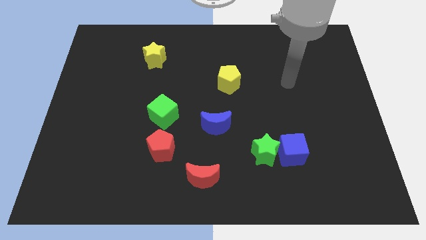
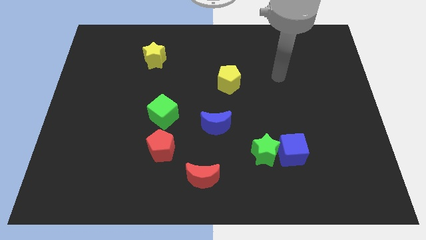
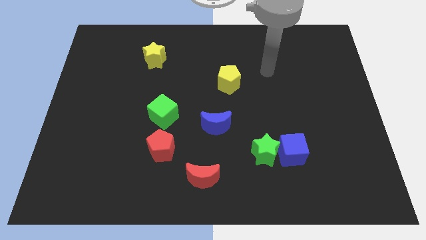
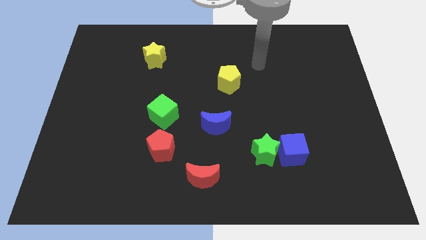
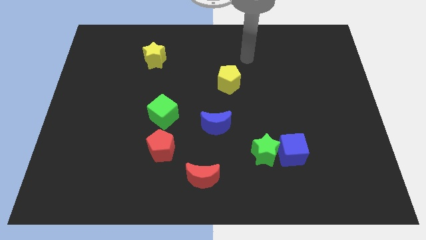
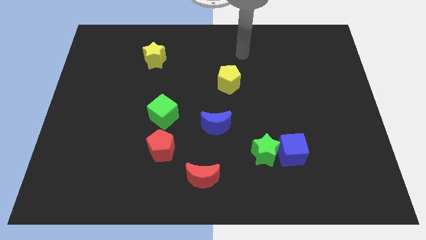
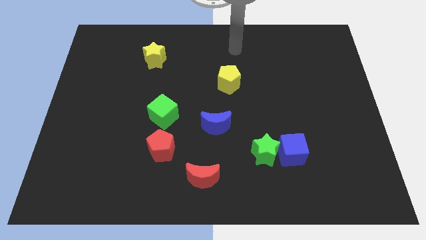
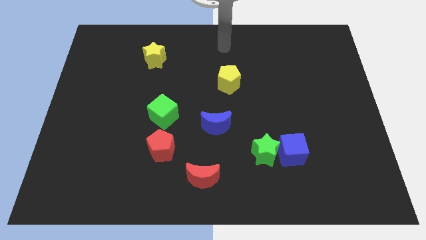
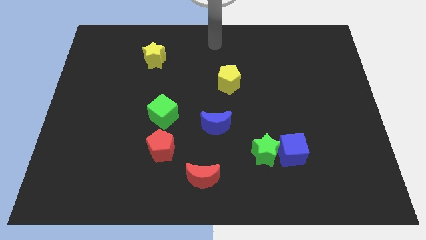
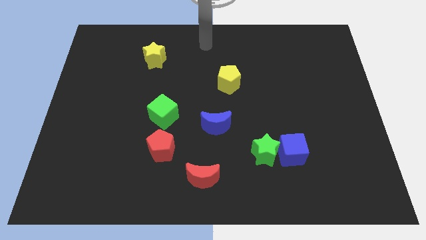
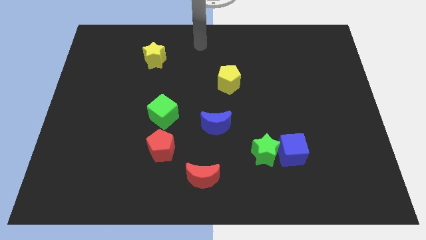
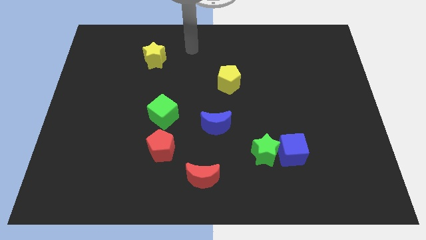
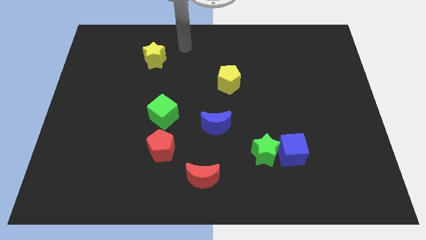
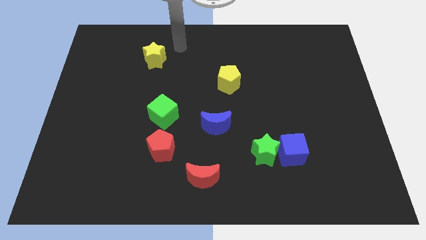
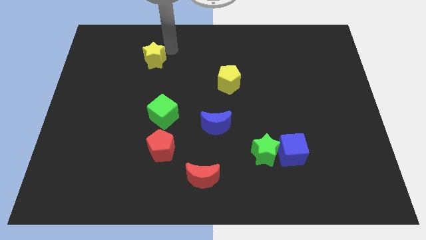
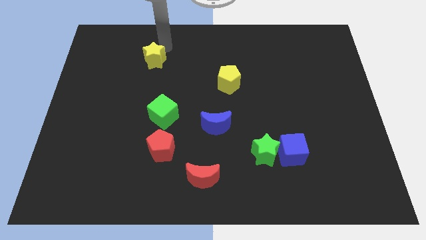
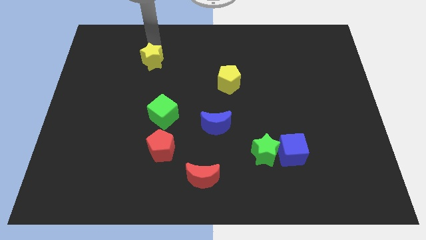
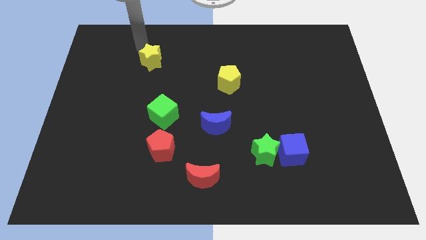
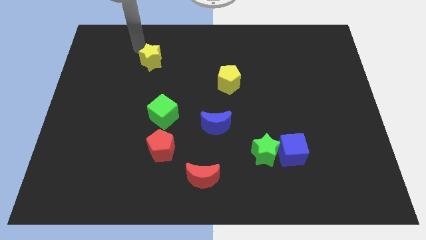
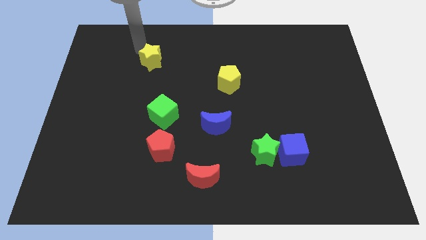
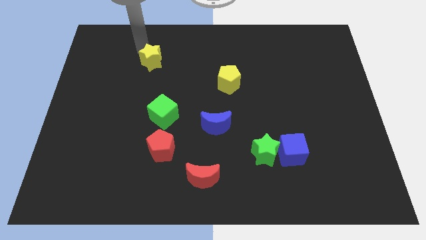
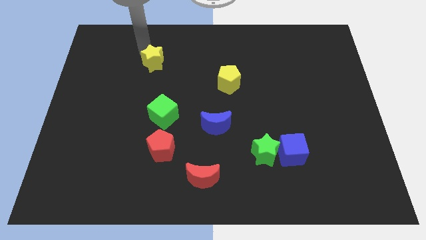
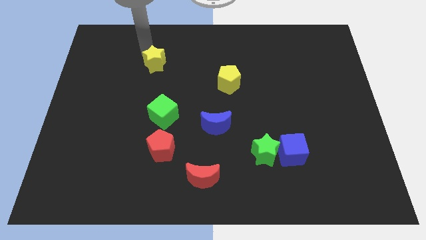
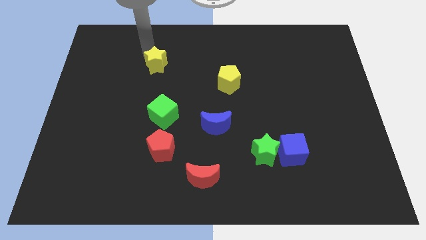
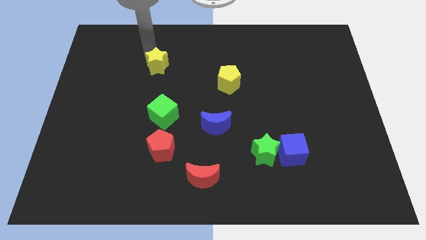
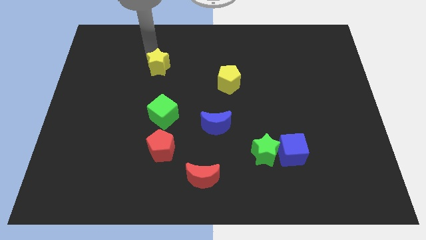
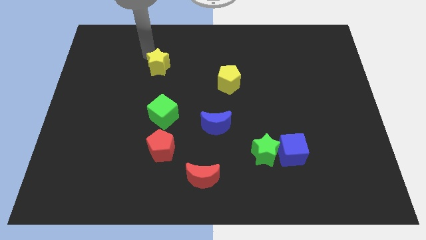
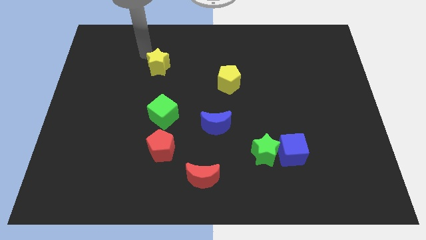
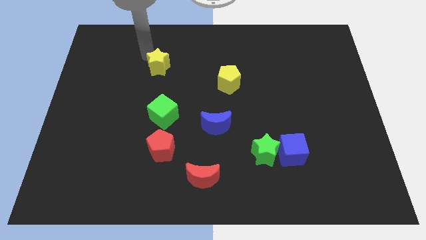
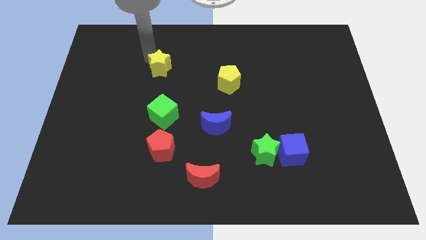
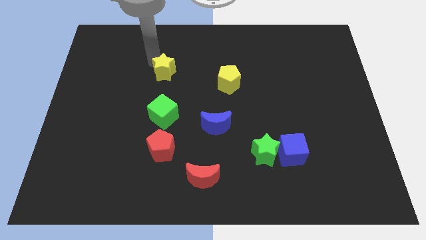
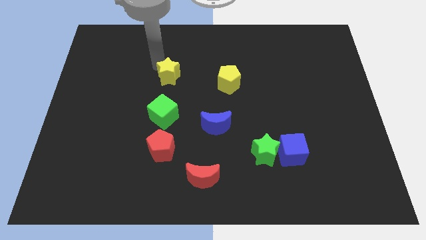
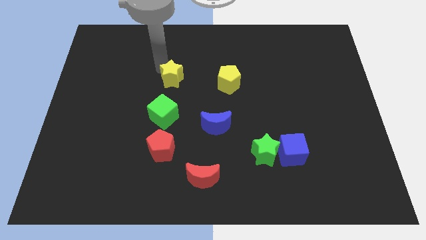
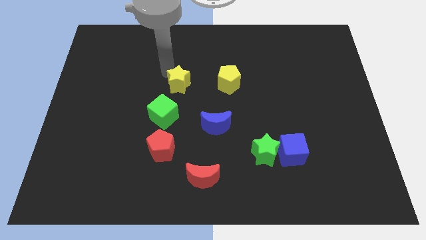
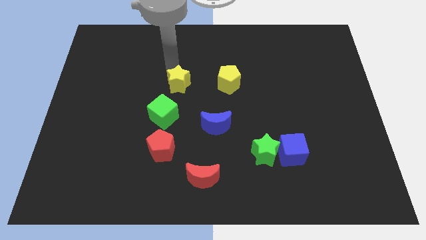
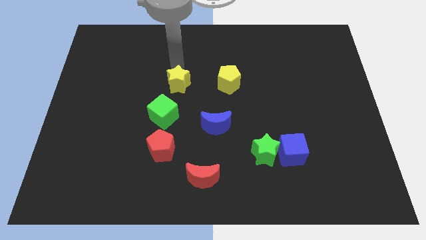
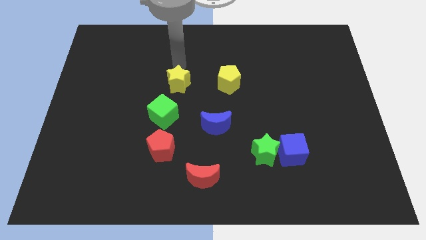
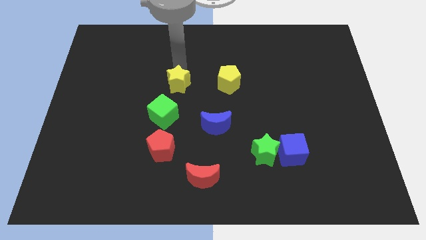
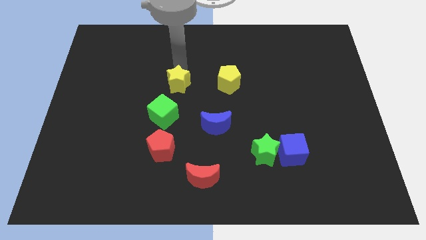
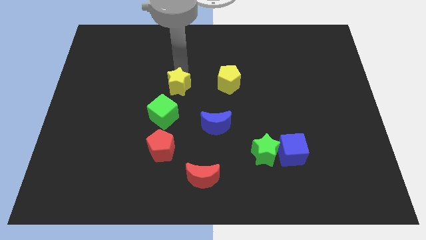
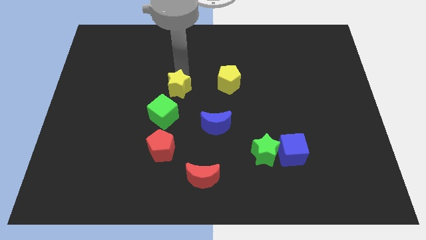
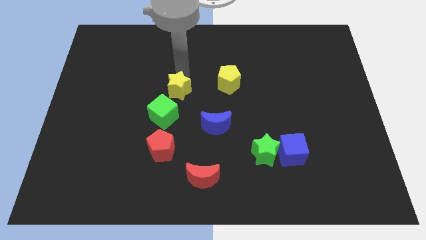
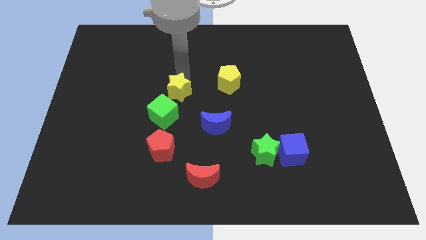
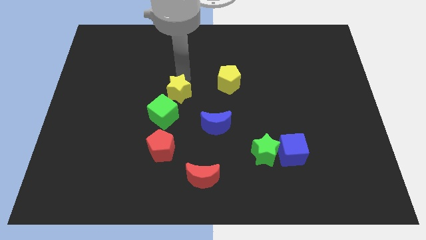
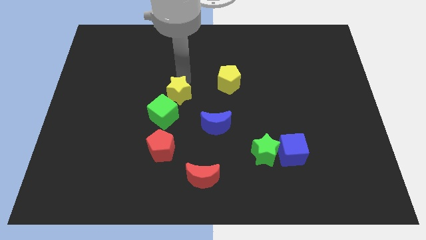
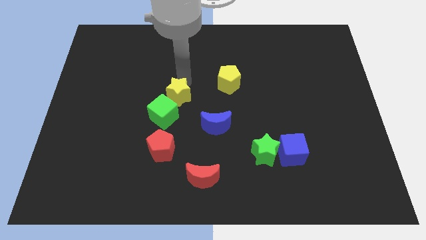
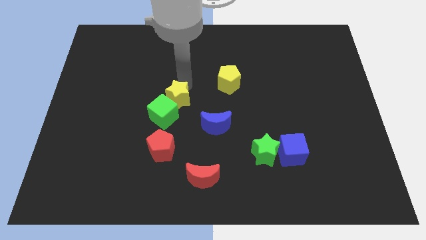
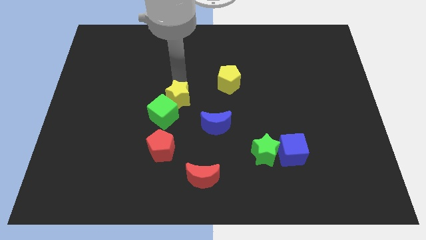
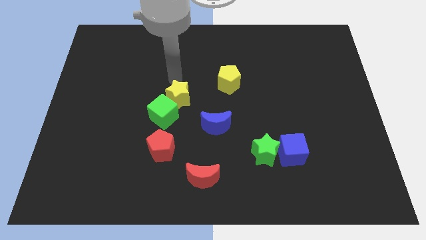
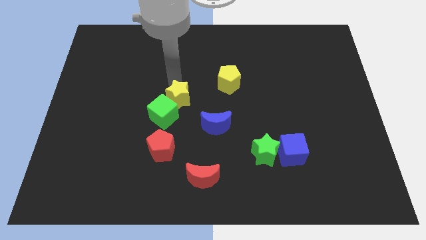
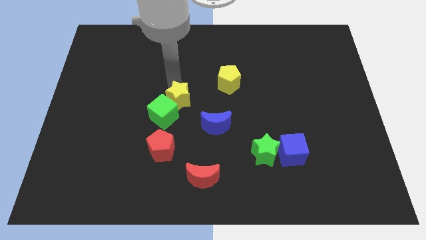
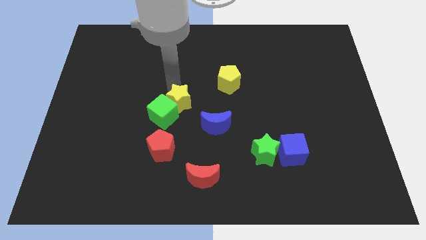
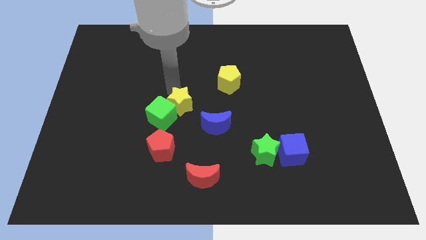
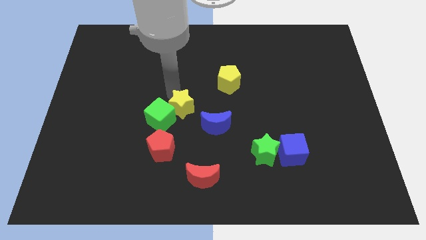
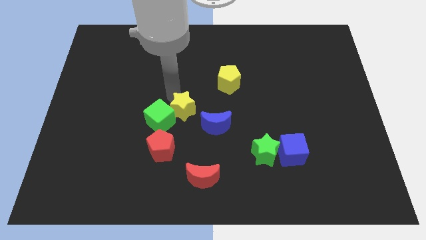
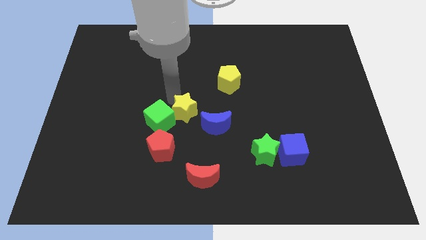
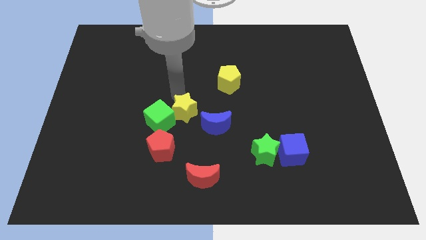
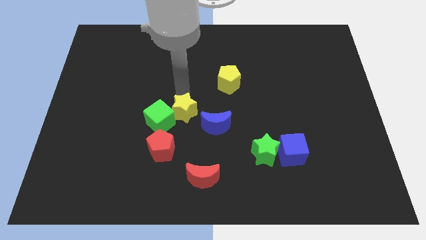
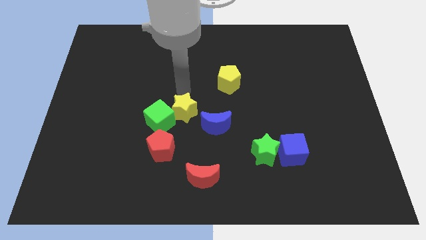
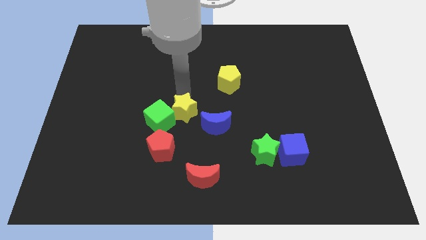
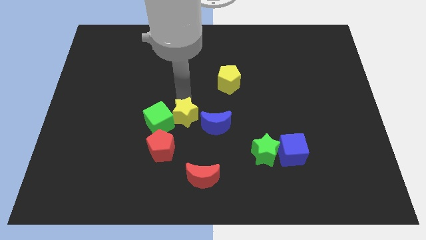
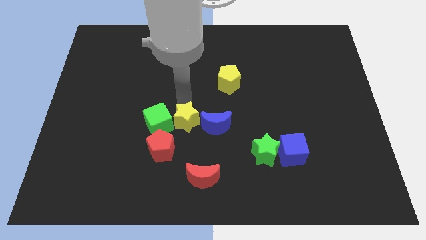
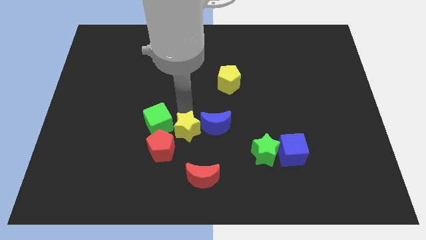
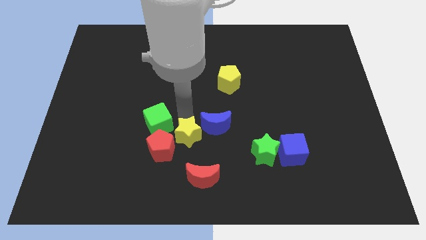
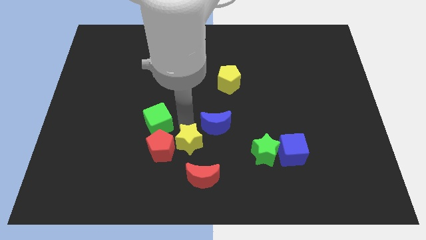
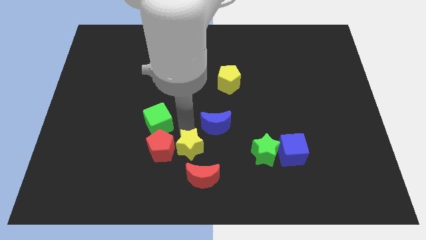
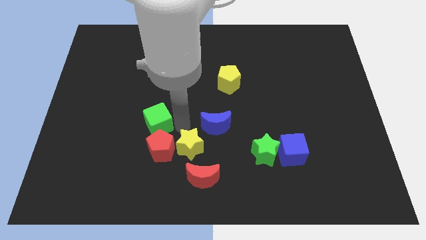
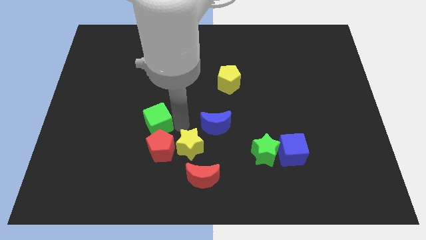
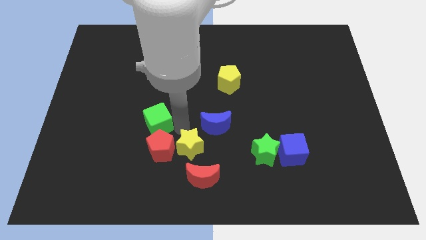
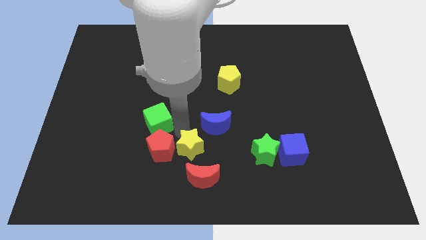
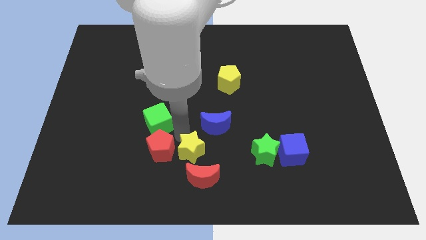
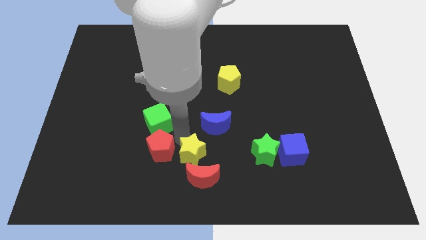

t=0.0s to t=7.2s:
move the yellow star to the red moon
